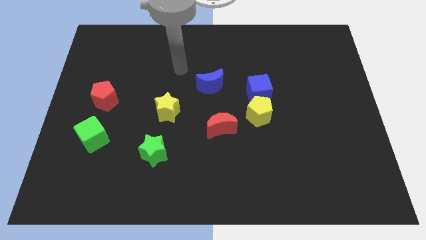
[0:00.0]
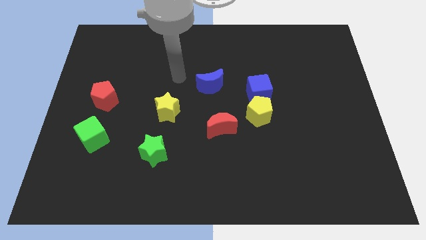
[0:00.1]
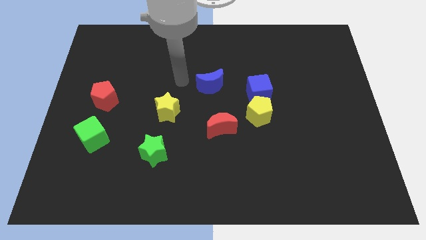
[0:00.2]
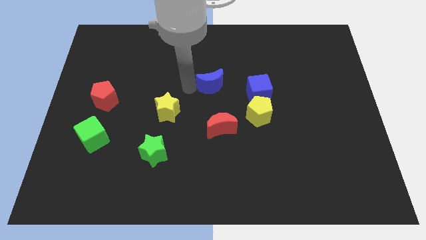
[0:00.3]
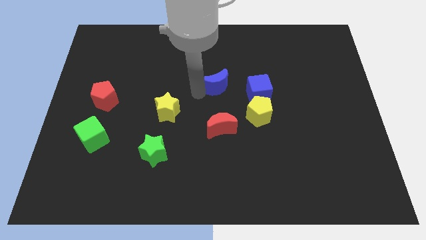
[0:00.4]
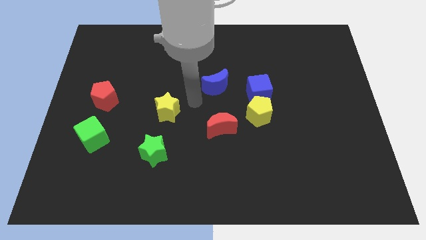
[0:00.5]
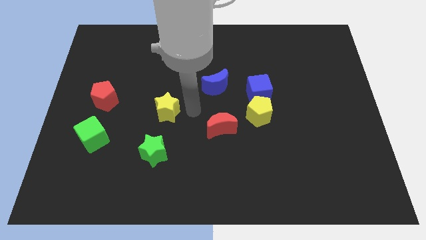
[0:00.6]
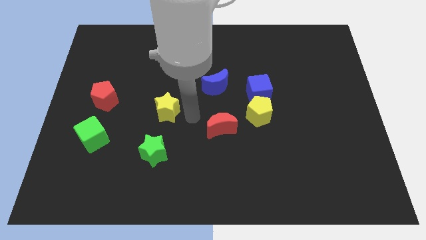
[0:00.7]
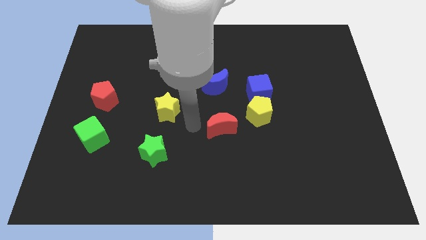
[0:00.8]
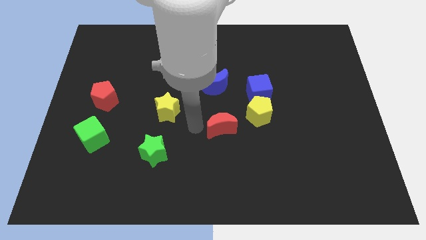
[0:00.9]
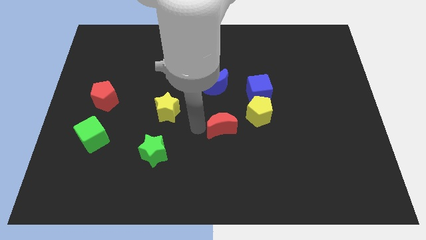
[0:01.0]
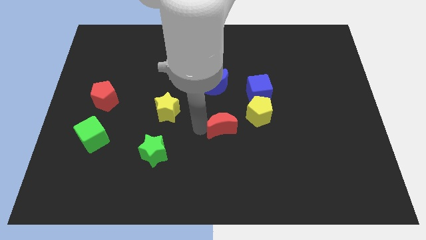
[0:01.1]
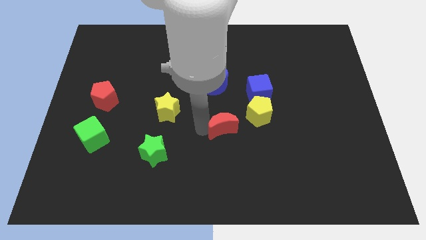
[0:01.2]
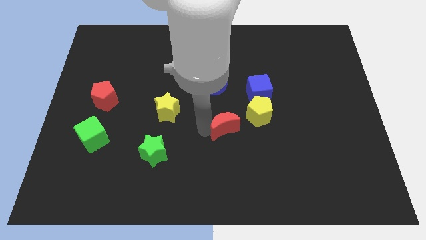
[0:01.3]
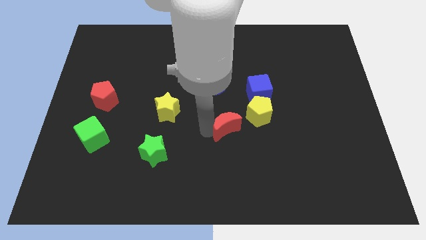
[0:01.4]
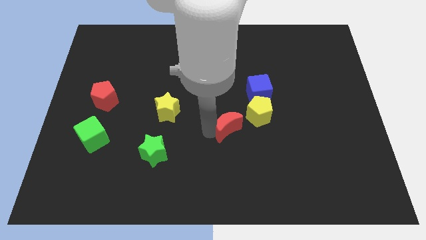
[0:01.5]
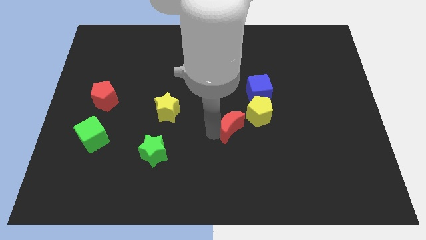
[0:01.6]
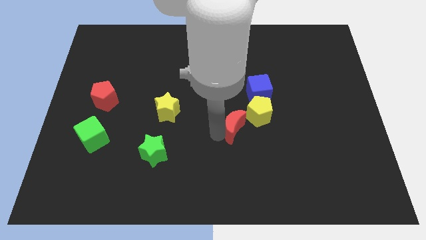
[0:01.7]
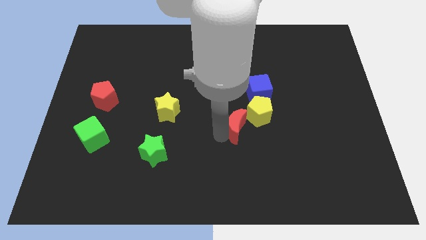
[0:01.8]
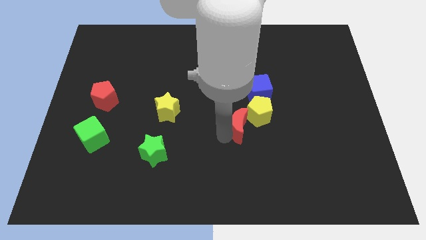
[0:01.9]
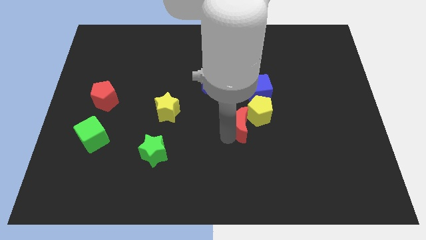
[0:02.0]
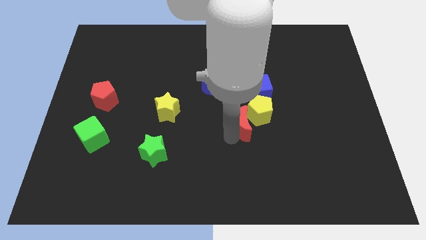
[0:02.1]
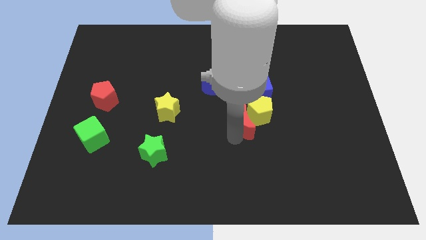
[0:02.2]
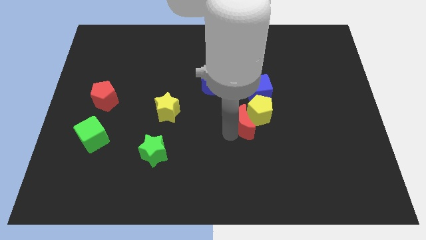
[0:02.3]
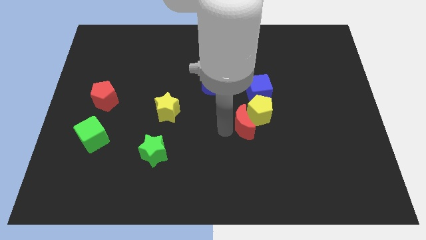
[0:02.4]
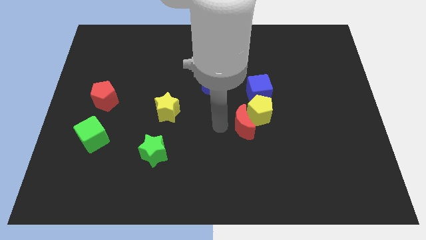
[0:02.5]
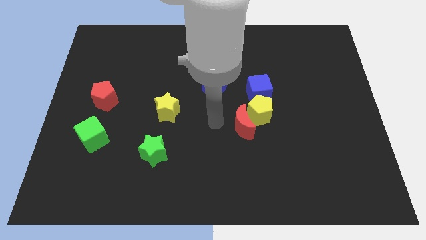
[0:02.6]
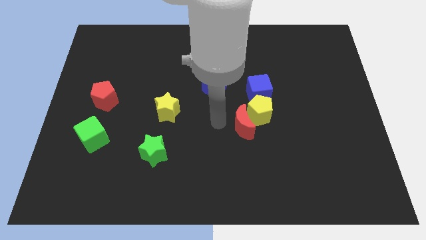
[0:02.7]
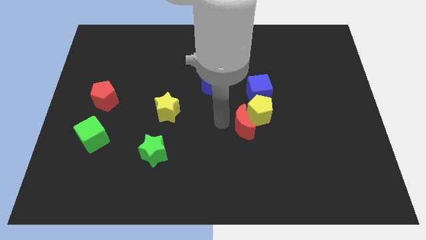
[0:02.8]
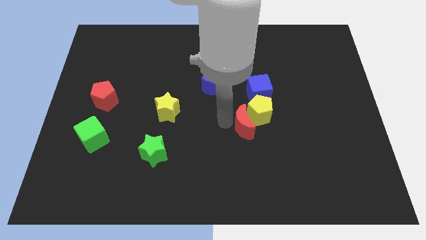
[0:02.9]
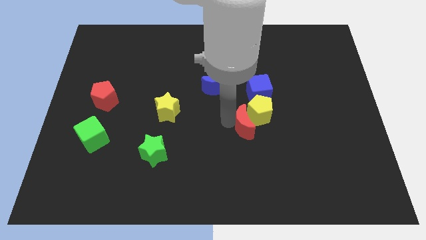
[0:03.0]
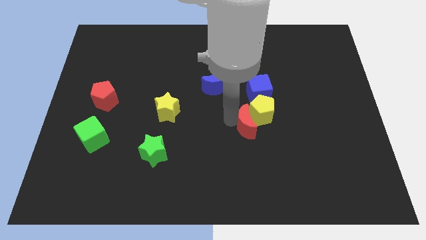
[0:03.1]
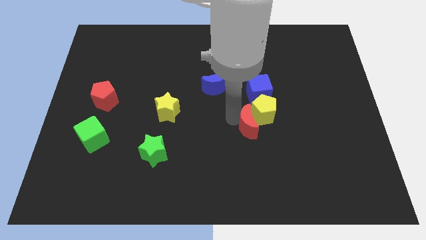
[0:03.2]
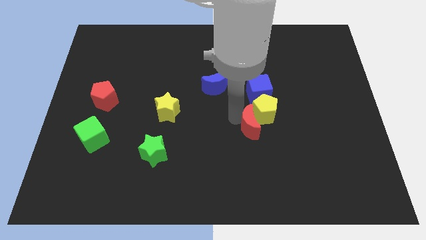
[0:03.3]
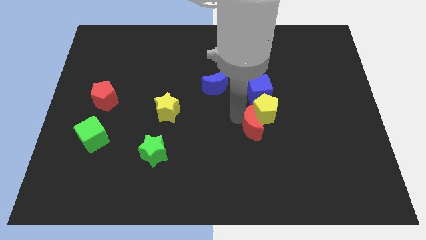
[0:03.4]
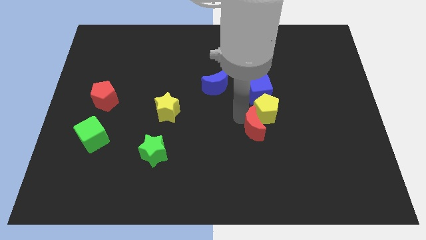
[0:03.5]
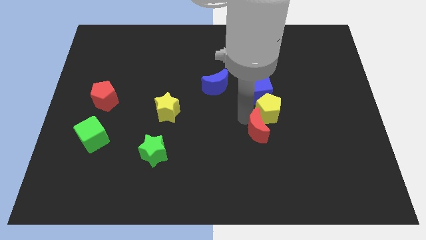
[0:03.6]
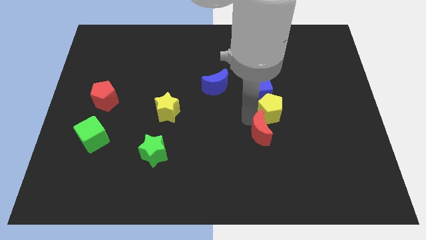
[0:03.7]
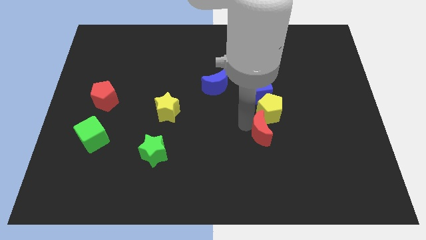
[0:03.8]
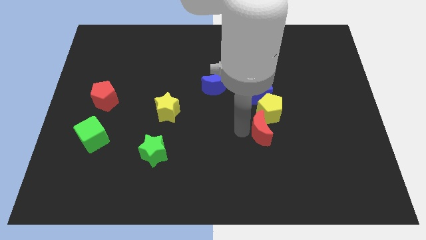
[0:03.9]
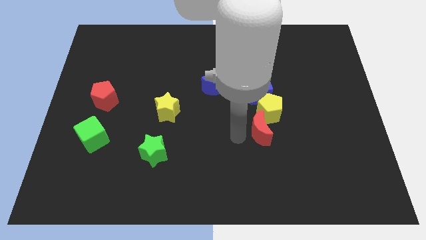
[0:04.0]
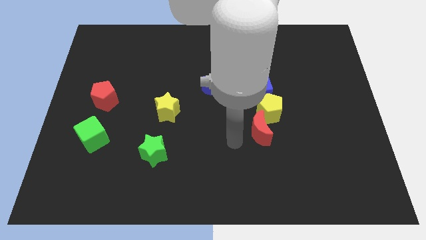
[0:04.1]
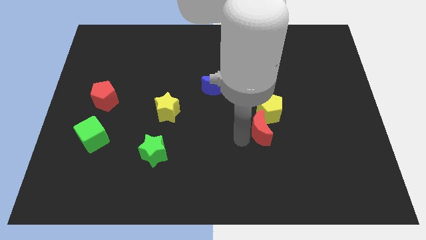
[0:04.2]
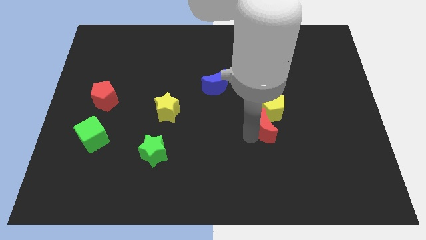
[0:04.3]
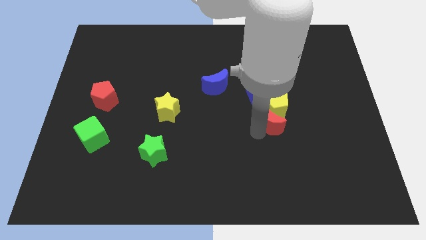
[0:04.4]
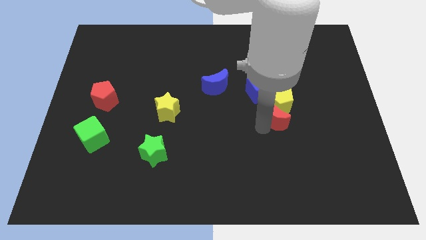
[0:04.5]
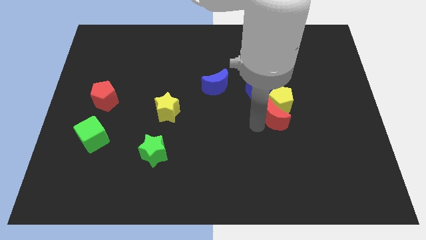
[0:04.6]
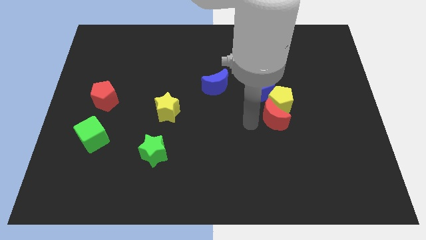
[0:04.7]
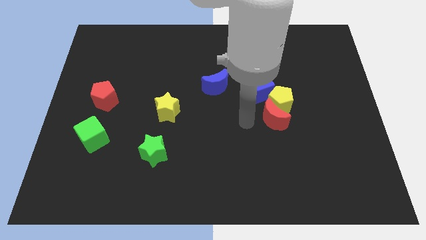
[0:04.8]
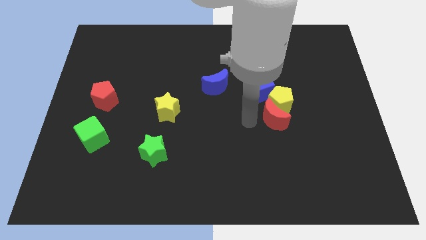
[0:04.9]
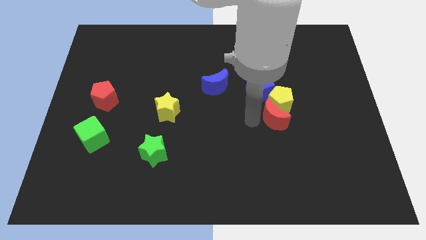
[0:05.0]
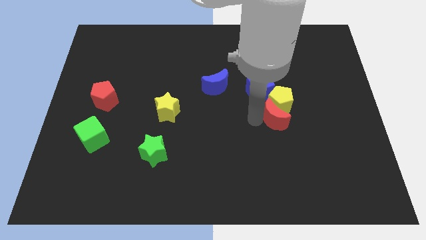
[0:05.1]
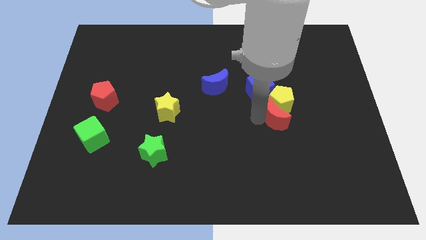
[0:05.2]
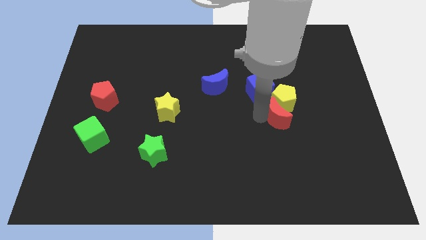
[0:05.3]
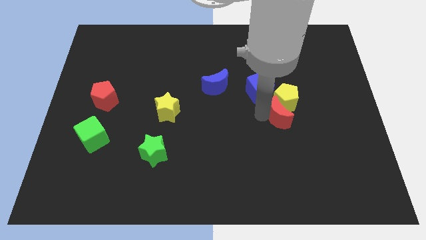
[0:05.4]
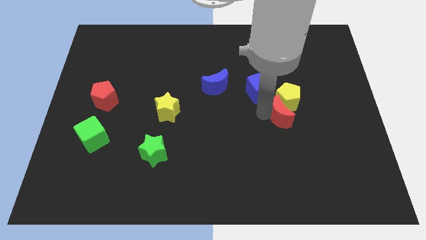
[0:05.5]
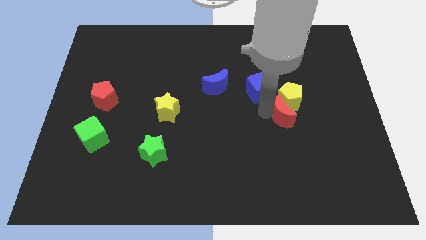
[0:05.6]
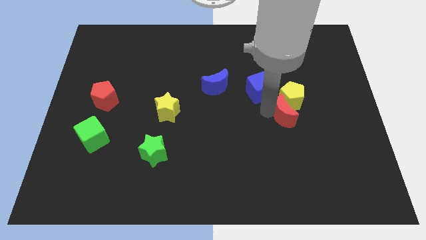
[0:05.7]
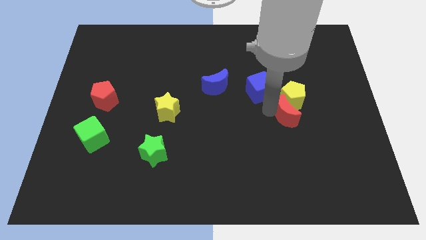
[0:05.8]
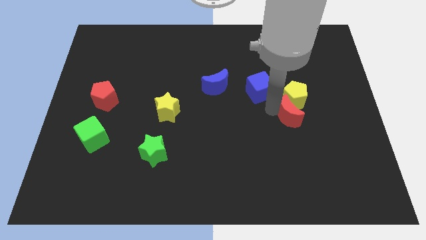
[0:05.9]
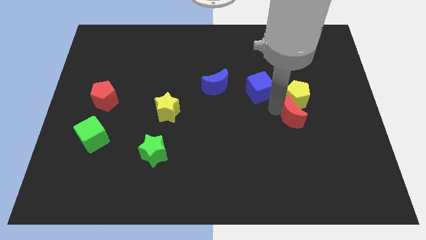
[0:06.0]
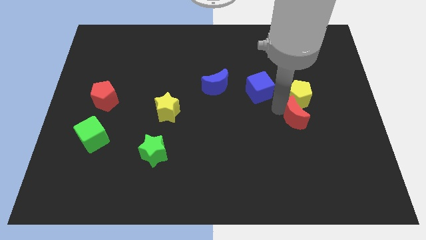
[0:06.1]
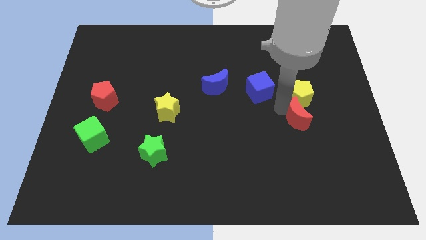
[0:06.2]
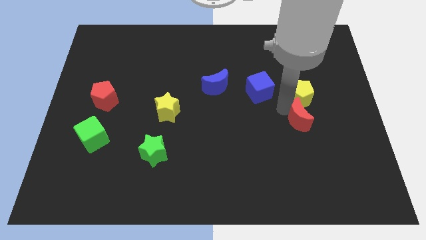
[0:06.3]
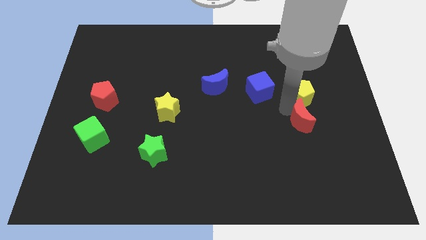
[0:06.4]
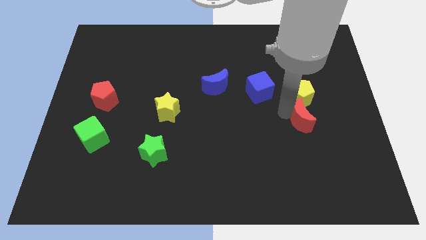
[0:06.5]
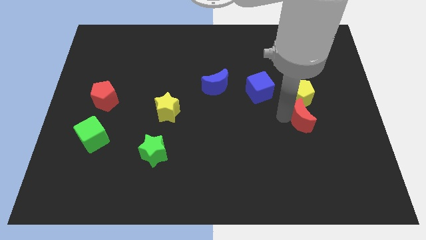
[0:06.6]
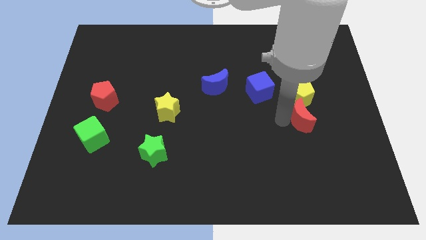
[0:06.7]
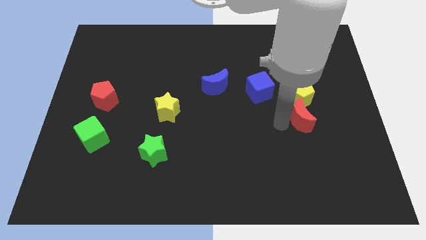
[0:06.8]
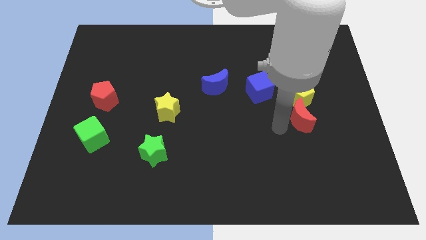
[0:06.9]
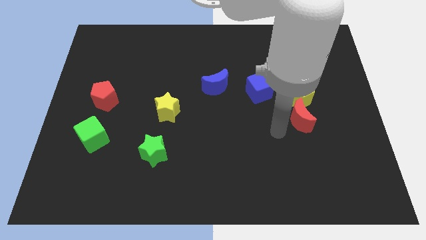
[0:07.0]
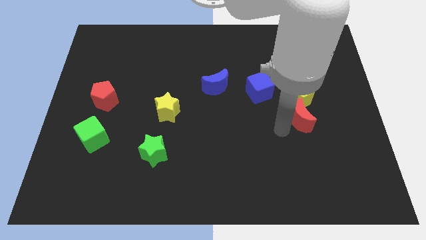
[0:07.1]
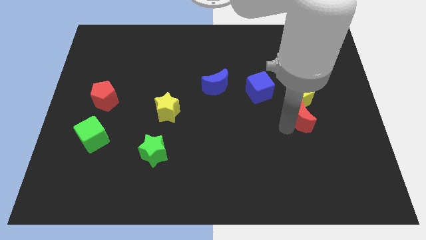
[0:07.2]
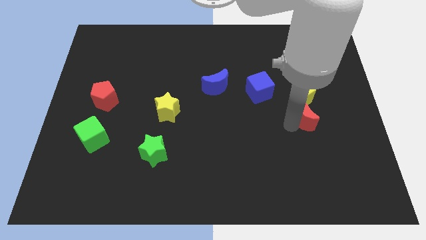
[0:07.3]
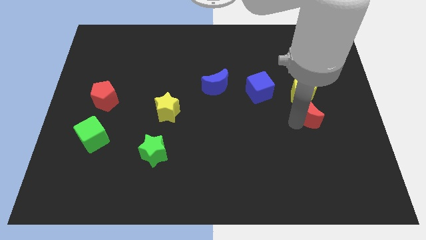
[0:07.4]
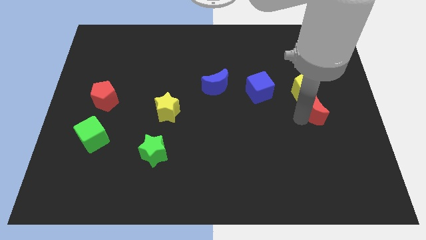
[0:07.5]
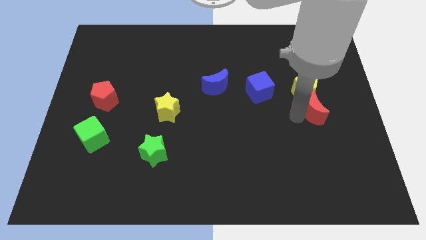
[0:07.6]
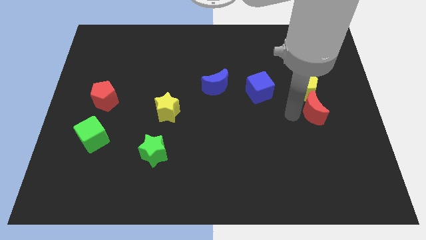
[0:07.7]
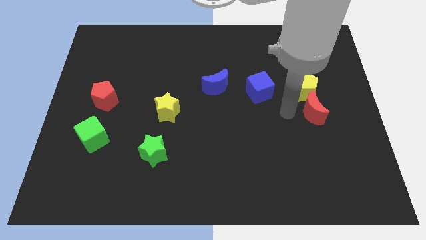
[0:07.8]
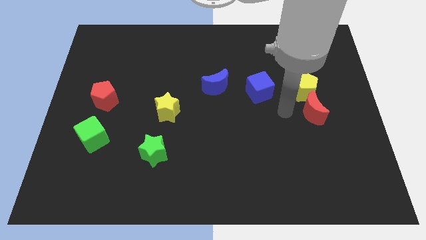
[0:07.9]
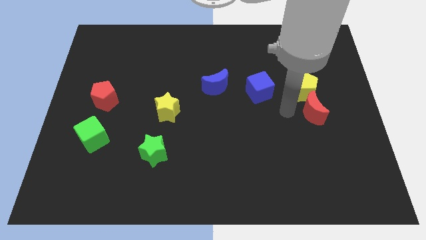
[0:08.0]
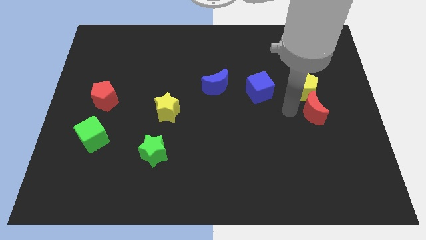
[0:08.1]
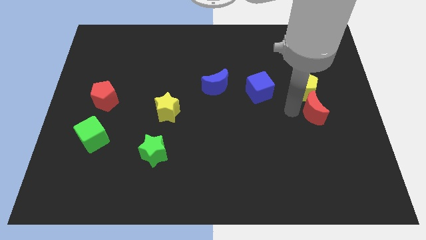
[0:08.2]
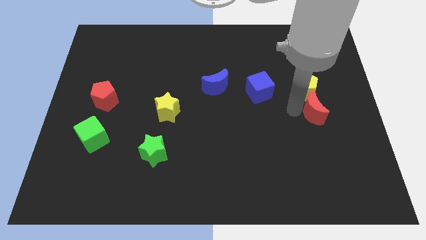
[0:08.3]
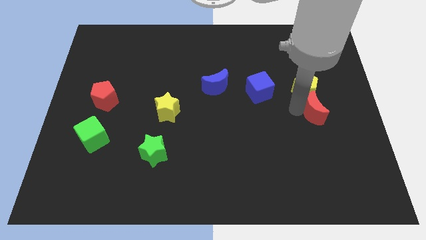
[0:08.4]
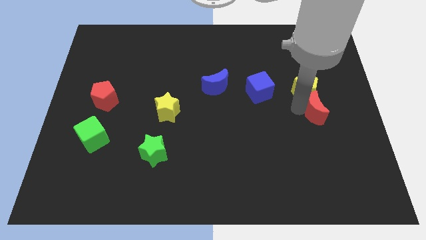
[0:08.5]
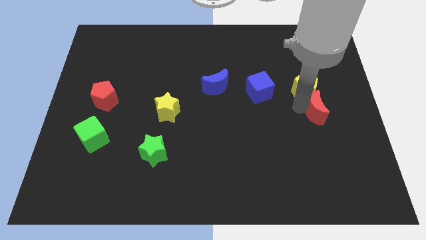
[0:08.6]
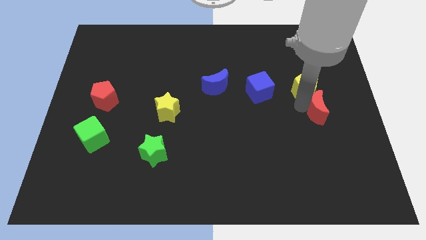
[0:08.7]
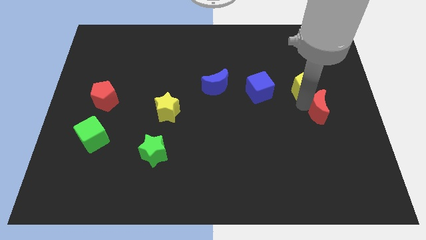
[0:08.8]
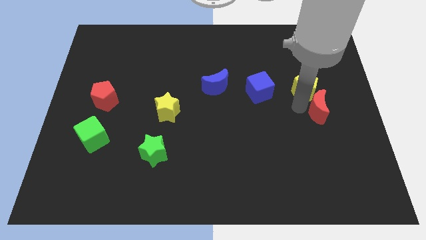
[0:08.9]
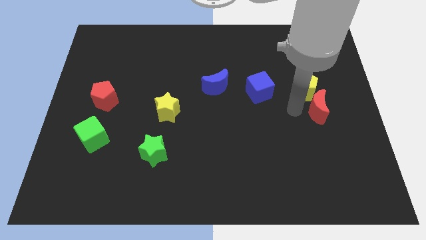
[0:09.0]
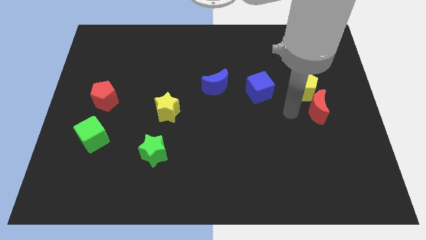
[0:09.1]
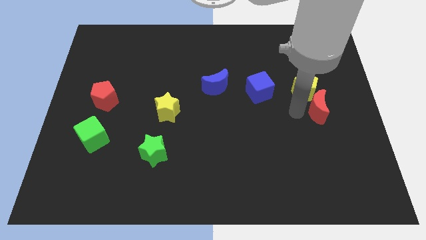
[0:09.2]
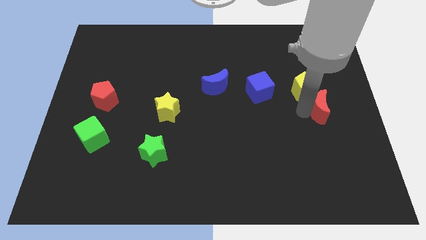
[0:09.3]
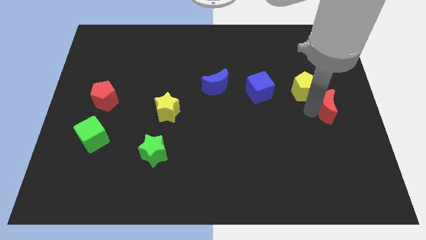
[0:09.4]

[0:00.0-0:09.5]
push the red moon to the center right
